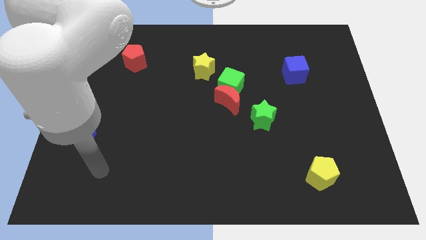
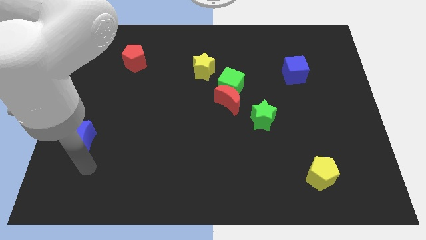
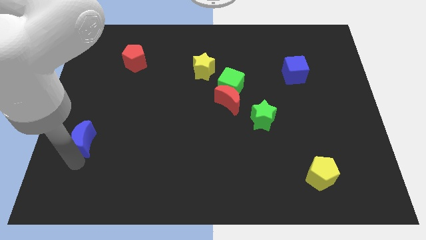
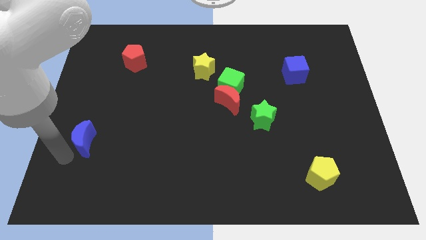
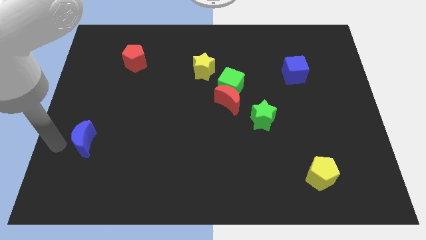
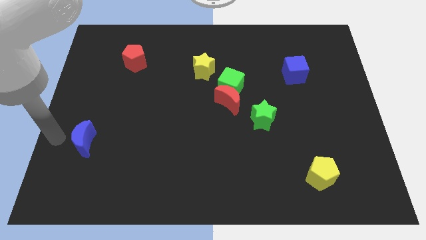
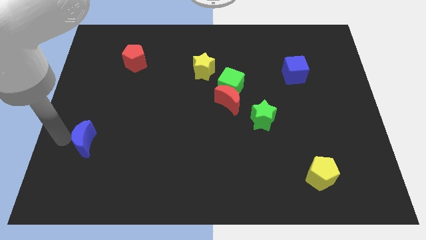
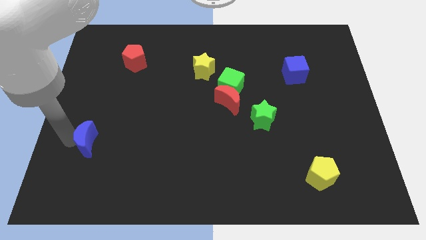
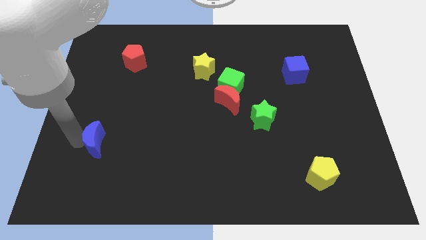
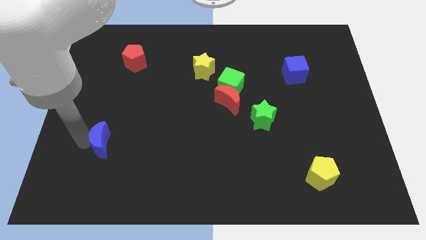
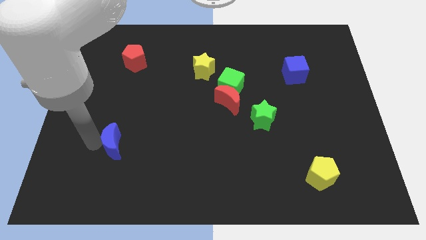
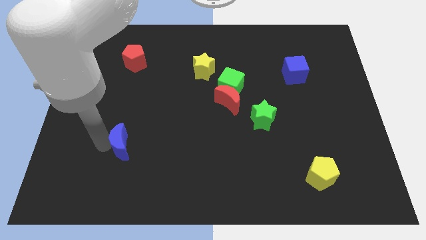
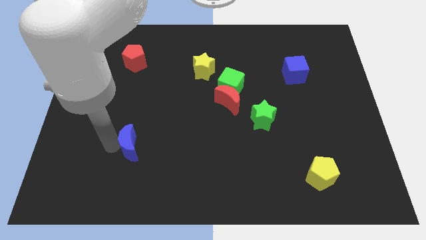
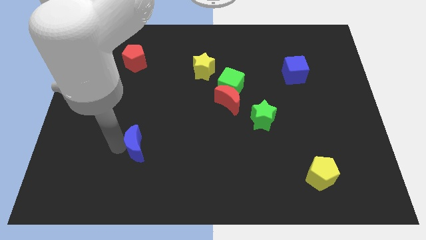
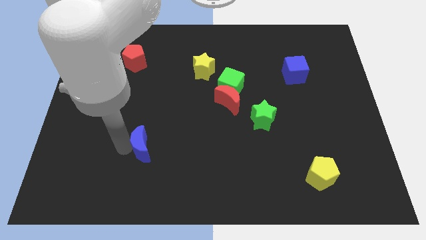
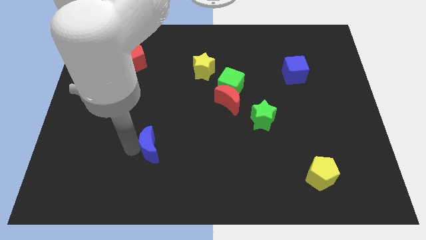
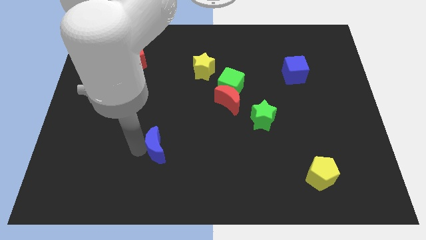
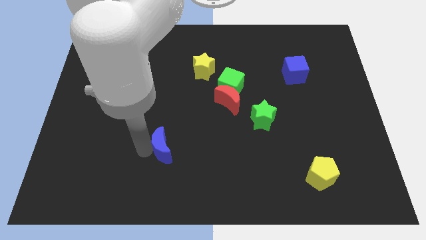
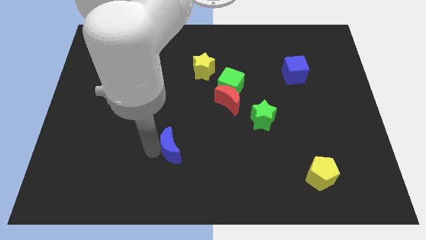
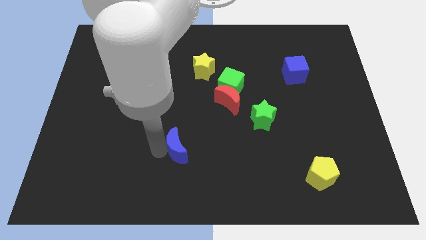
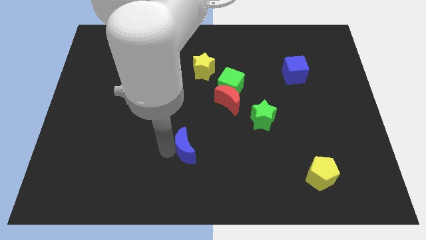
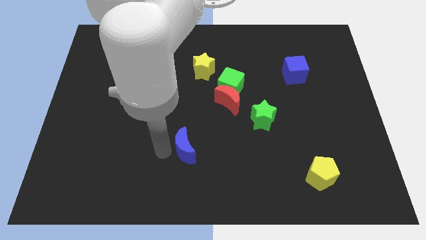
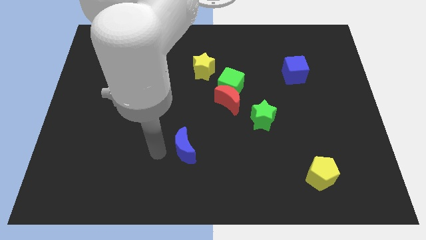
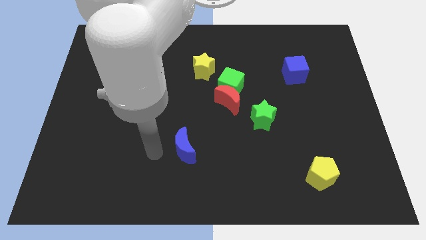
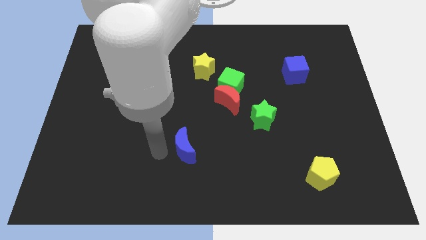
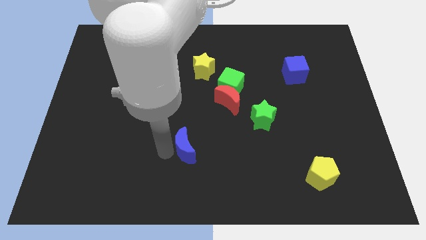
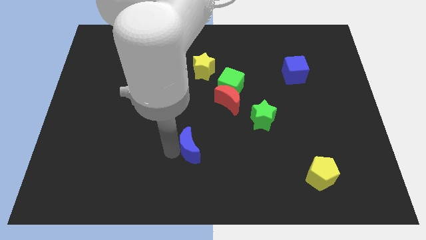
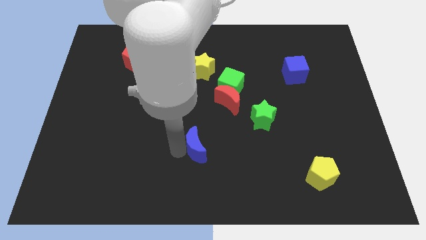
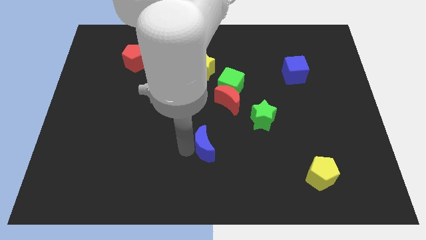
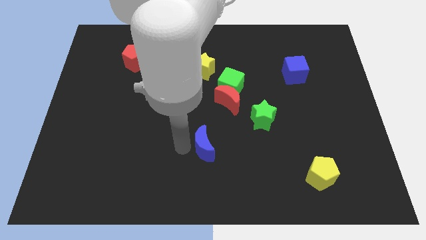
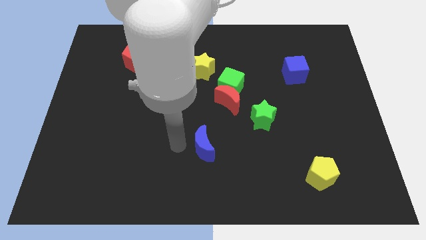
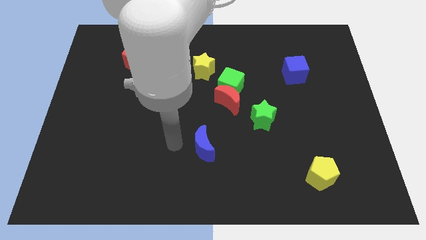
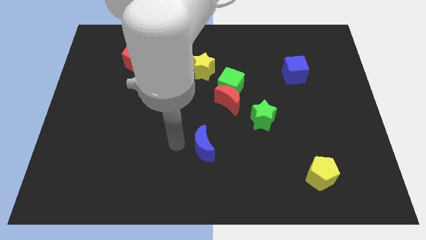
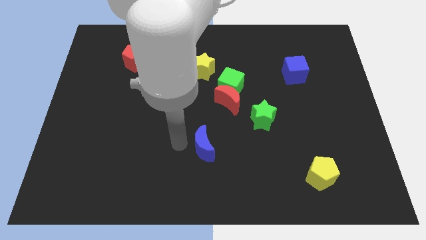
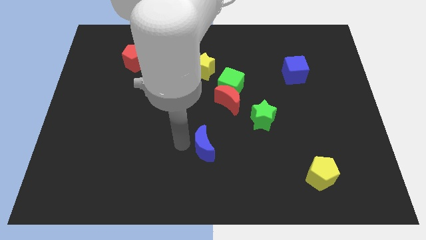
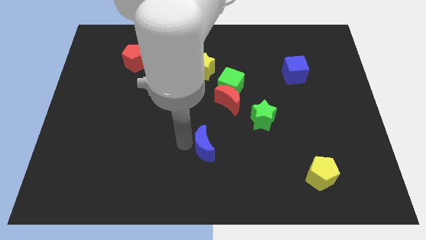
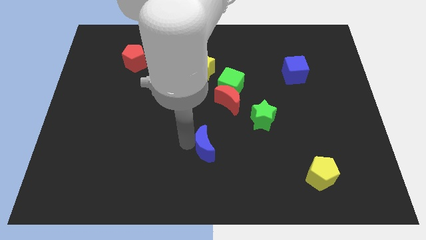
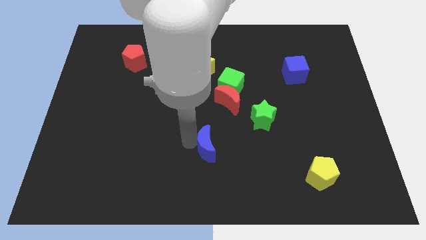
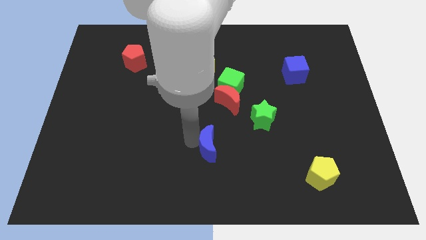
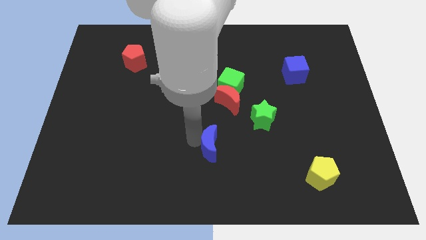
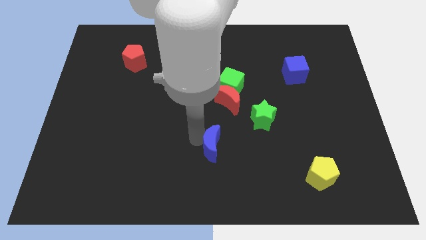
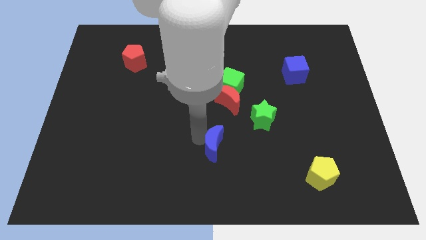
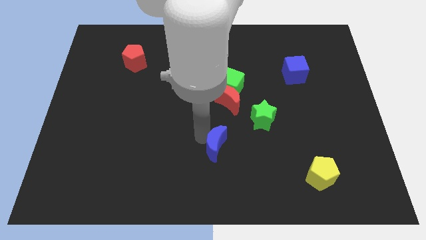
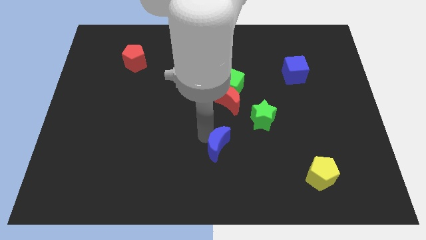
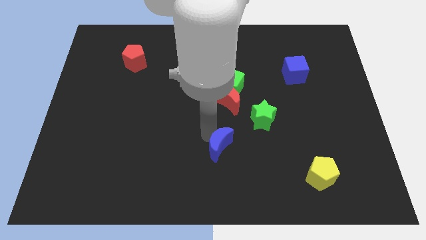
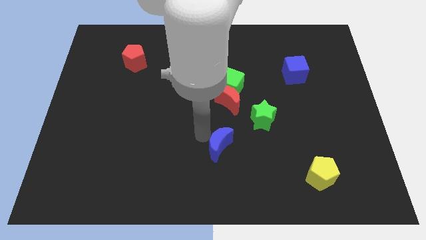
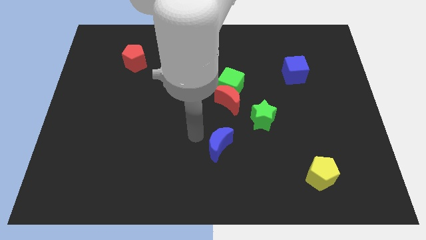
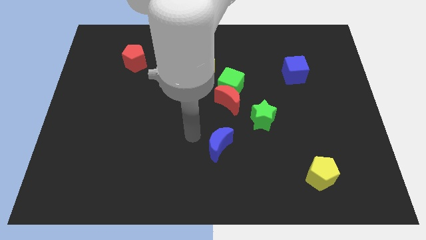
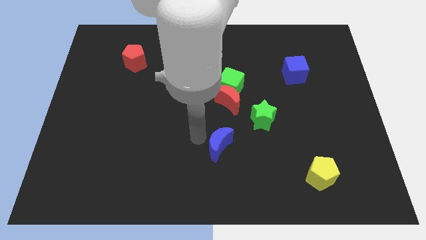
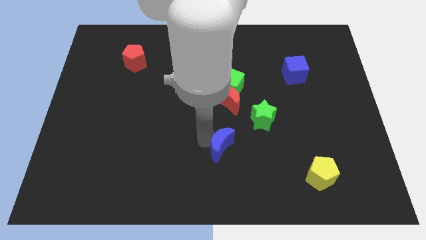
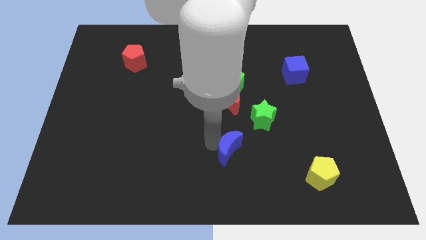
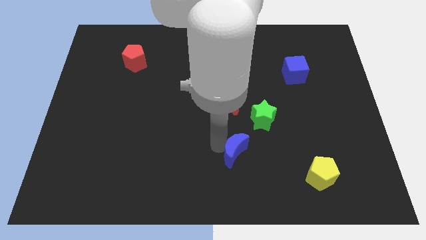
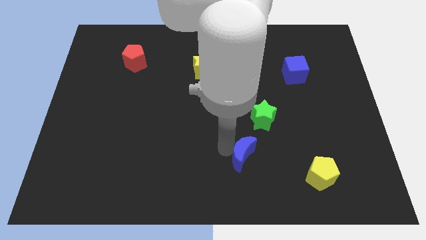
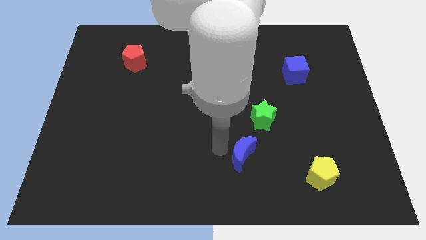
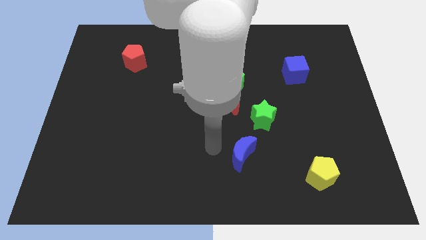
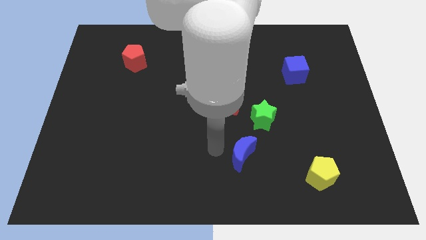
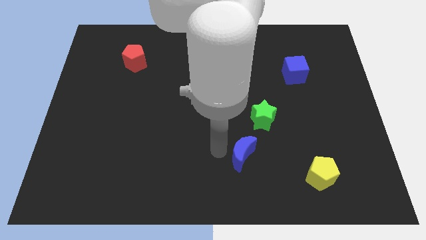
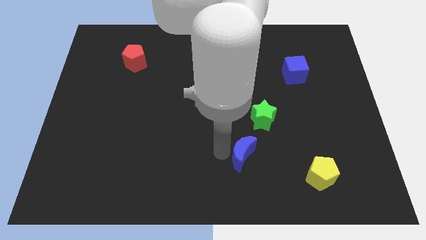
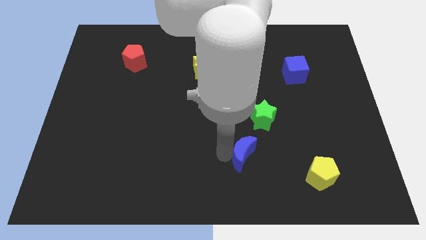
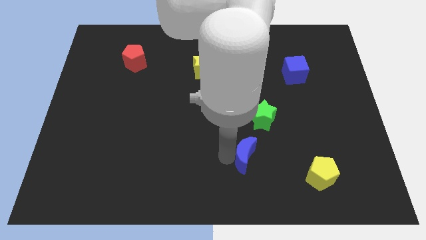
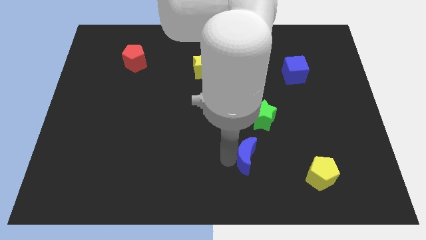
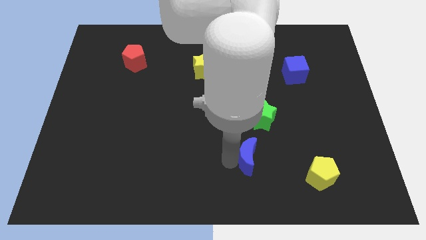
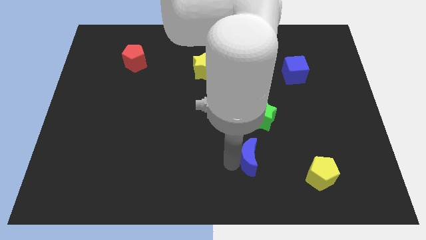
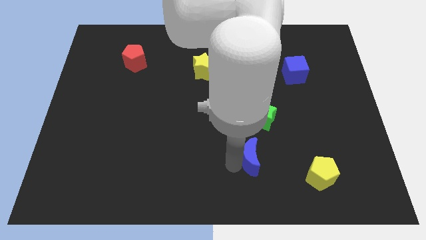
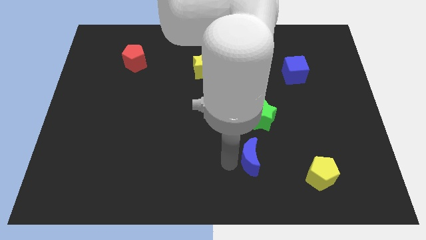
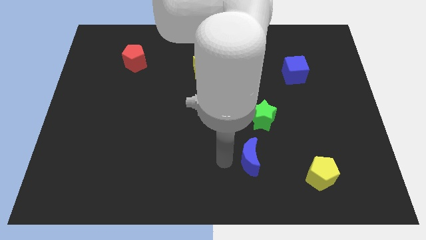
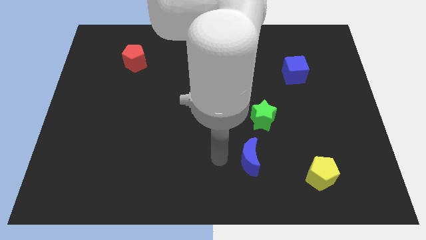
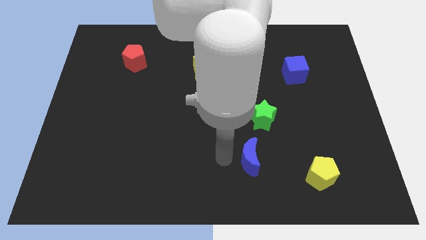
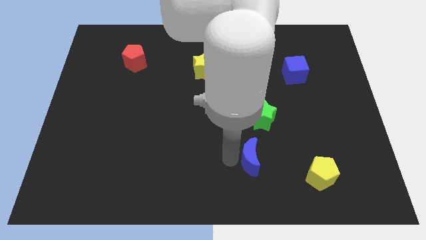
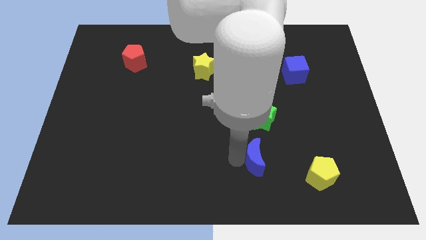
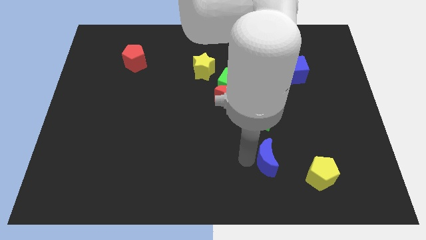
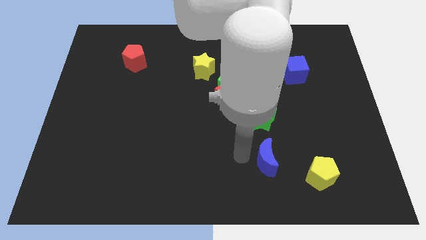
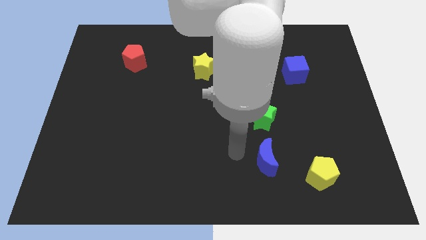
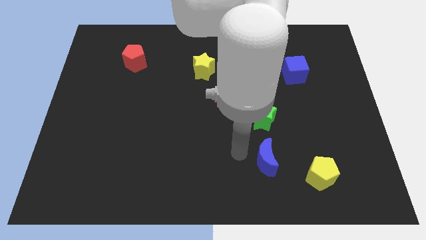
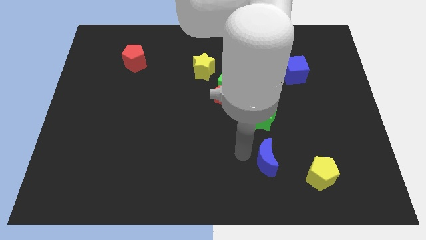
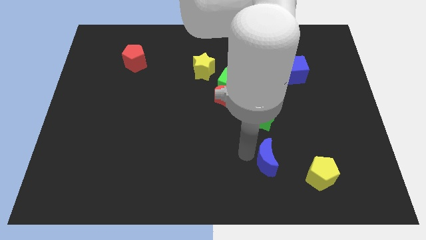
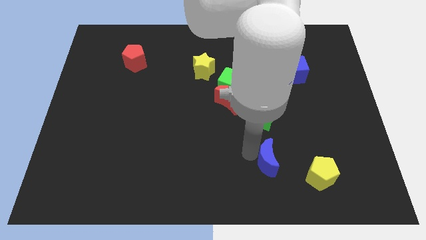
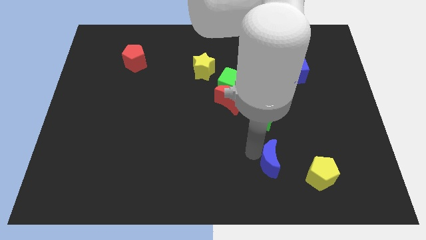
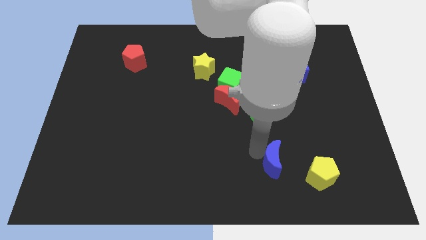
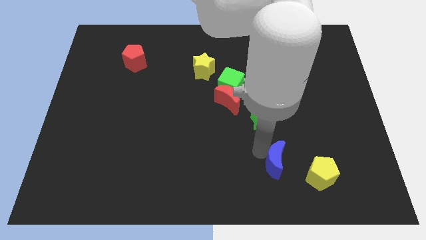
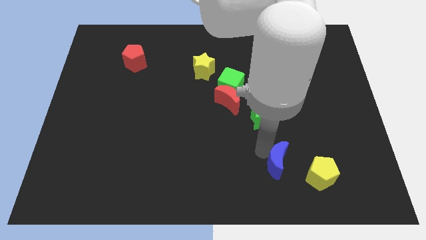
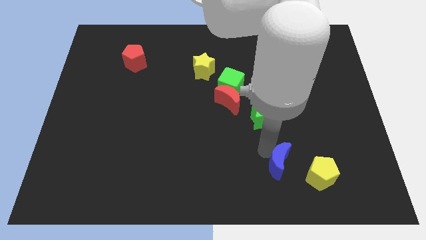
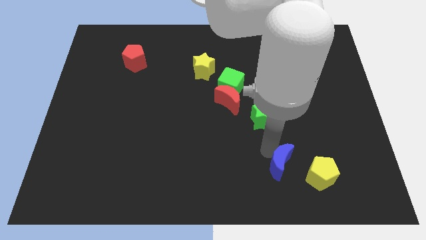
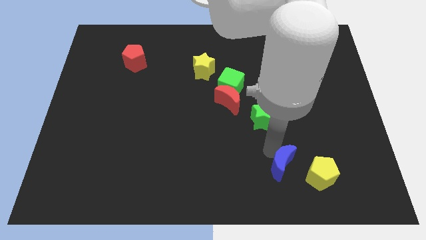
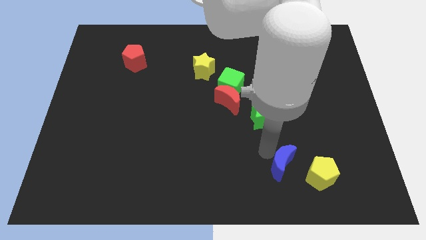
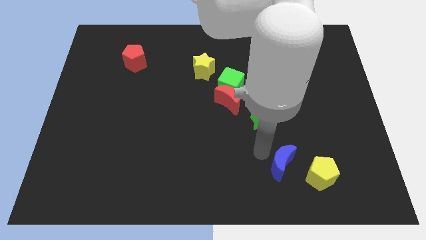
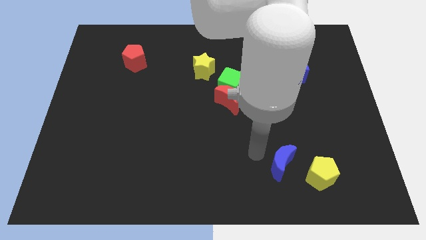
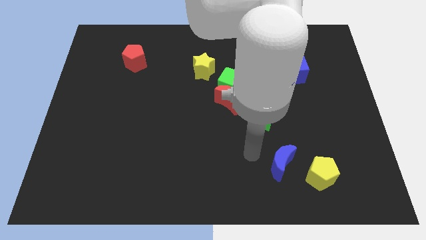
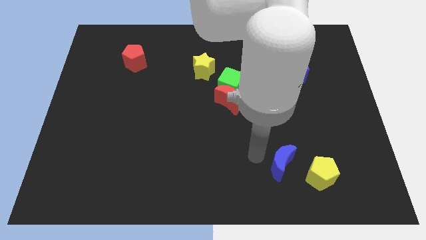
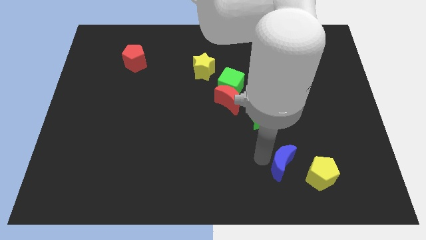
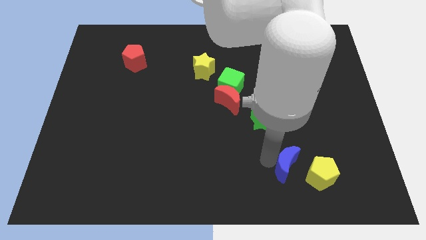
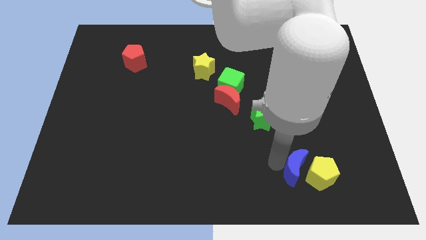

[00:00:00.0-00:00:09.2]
put the blue moon next to the yellow pentagon
